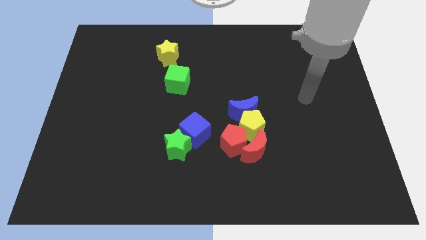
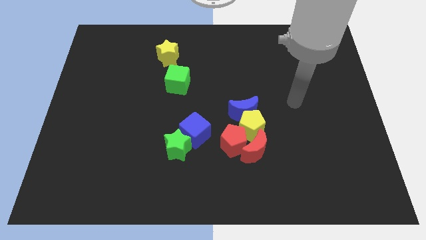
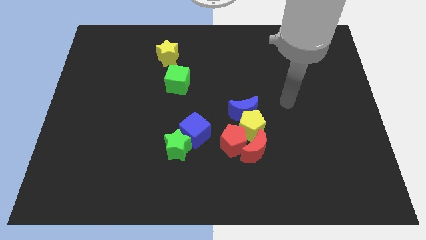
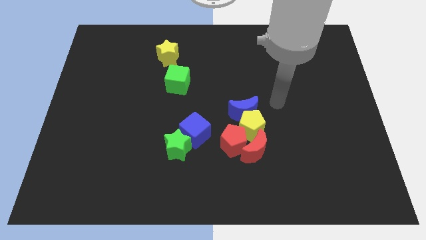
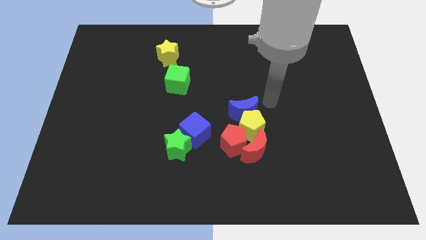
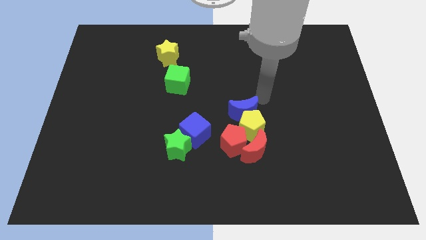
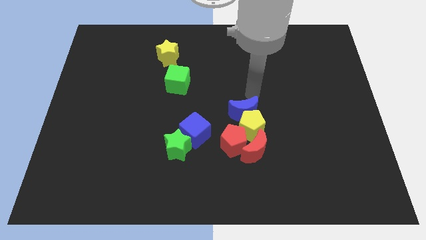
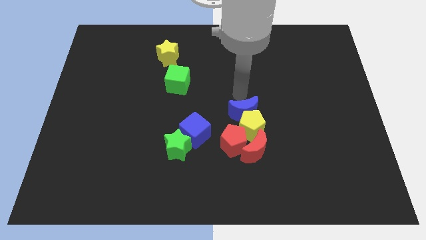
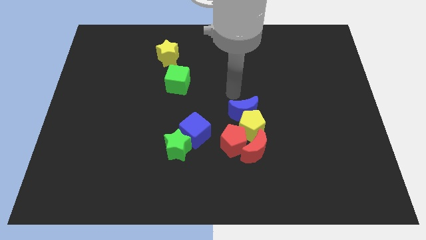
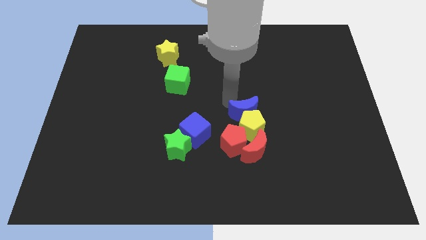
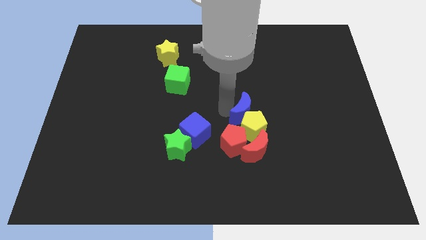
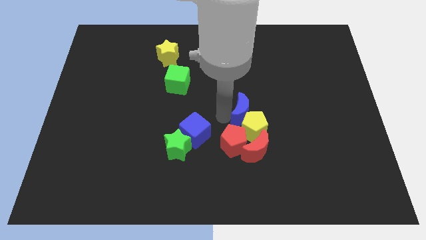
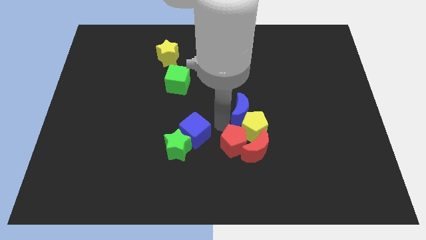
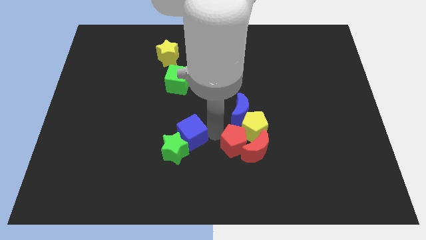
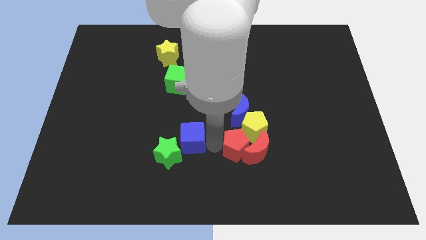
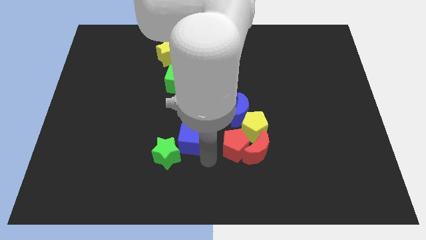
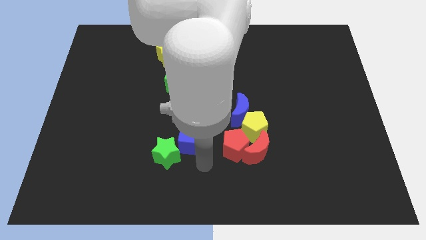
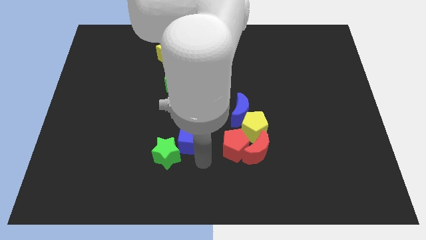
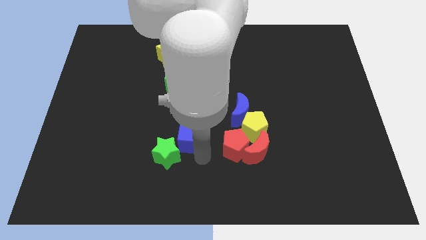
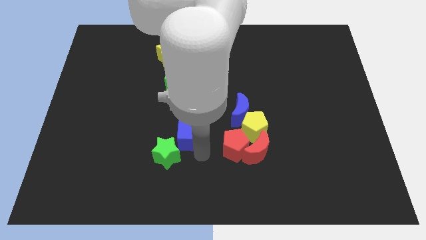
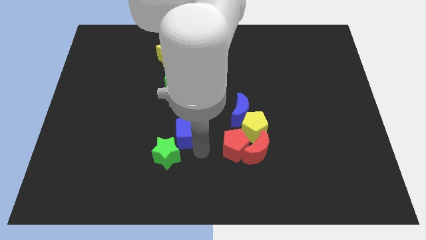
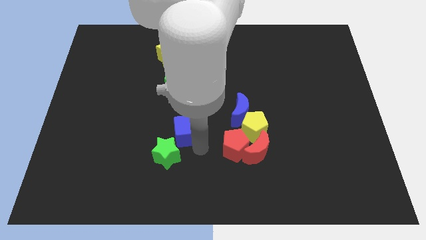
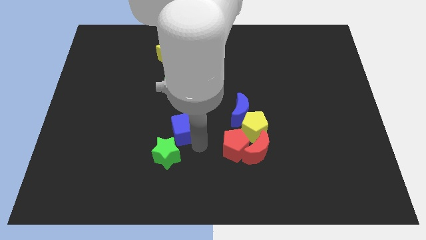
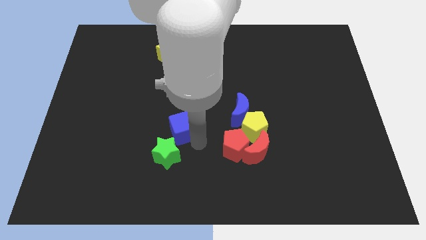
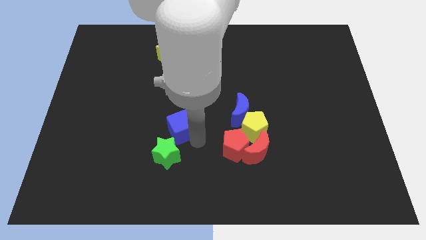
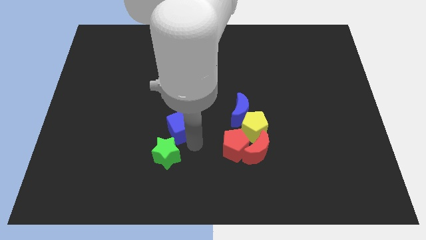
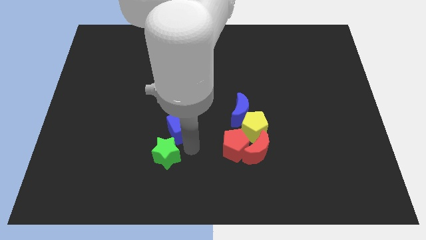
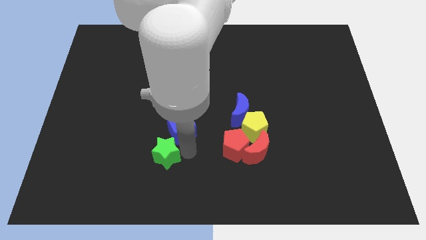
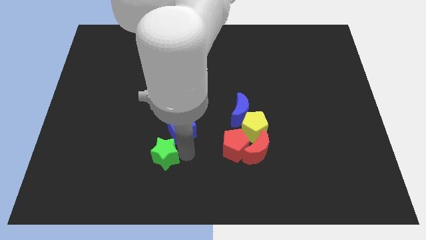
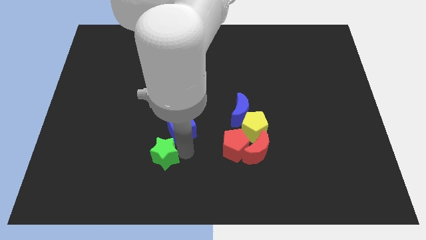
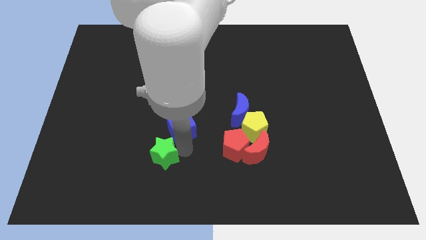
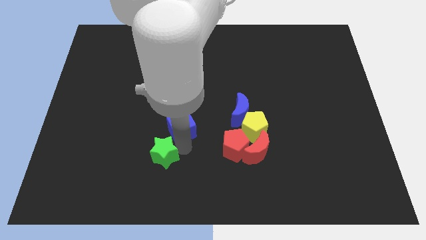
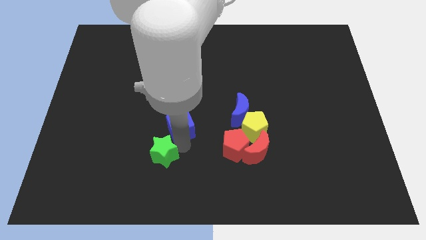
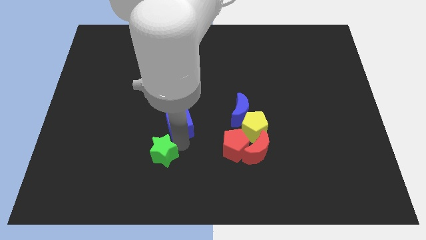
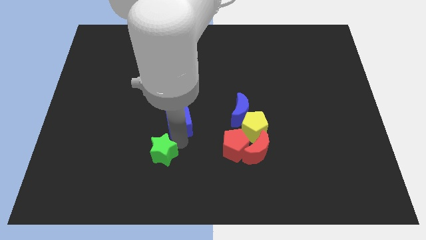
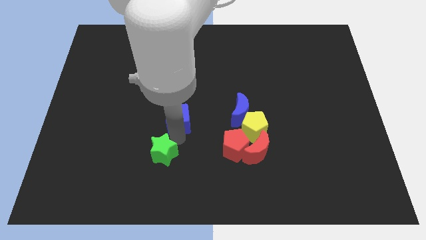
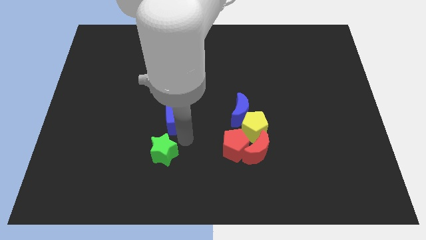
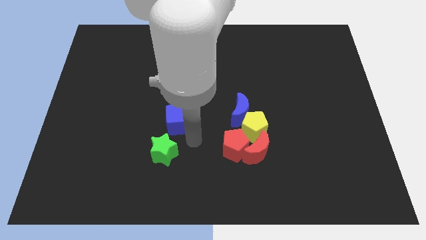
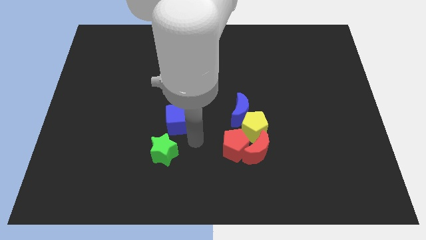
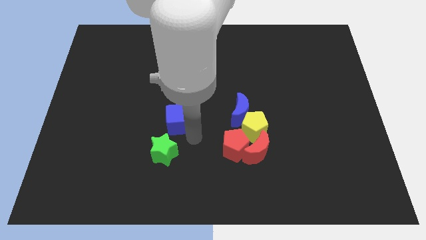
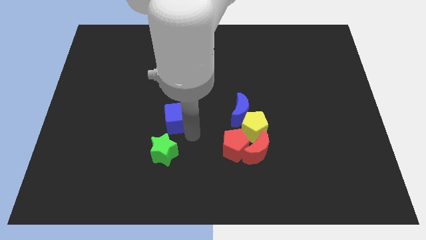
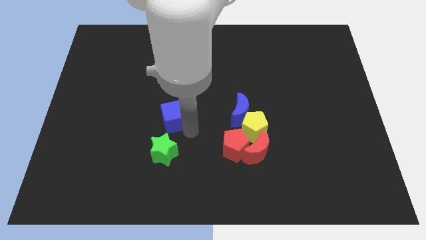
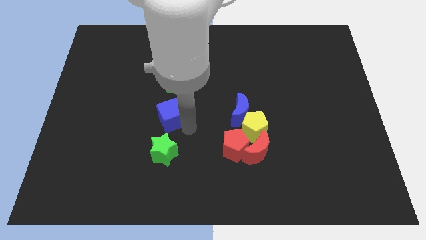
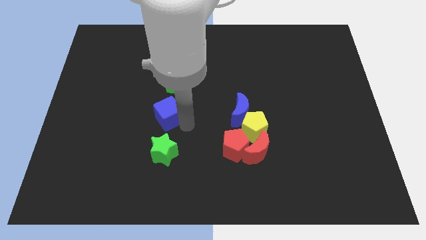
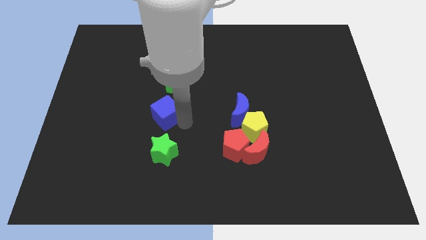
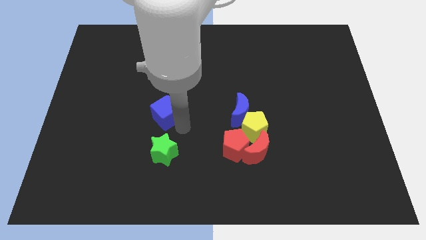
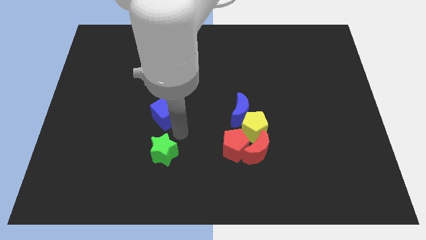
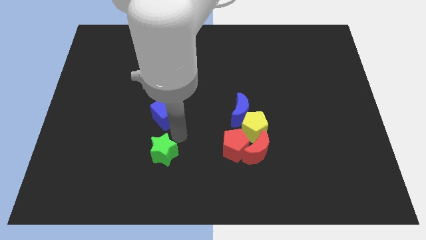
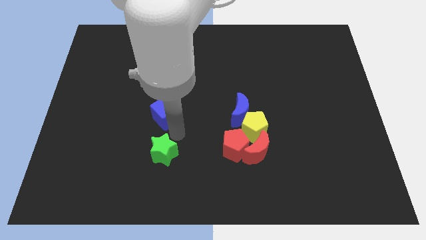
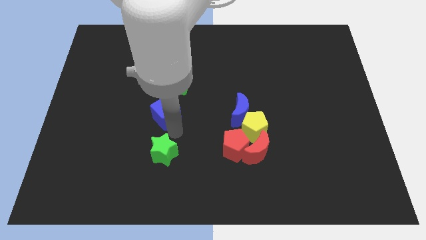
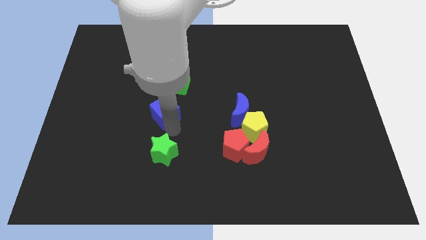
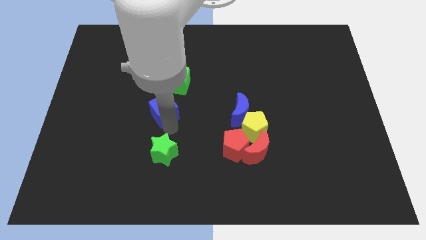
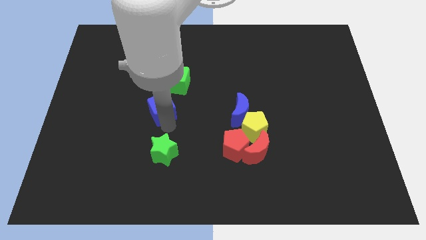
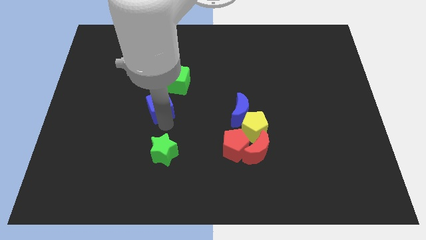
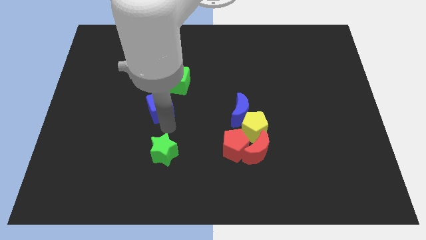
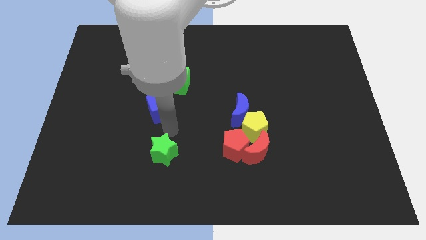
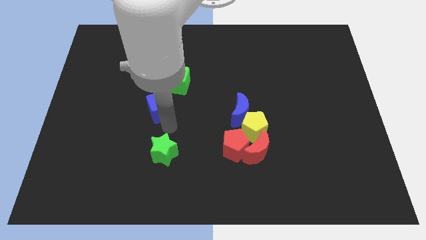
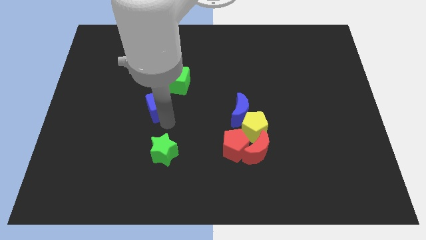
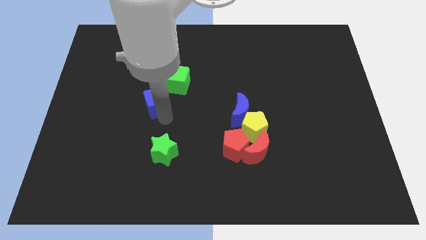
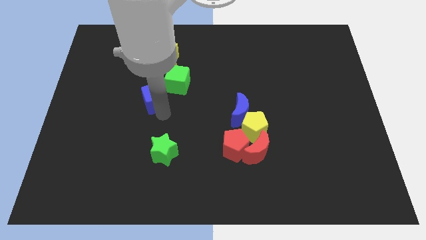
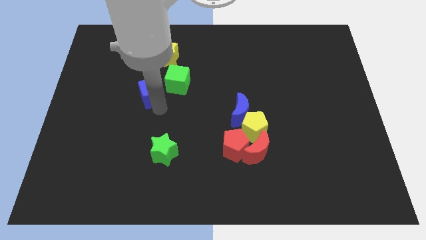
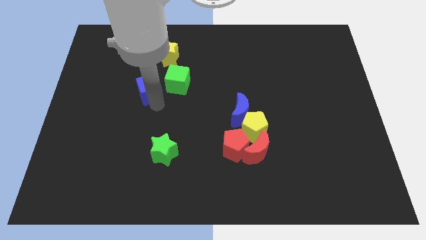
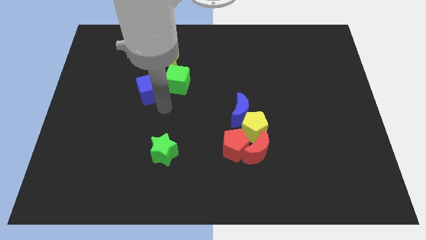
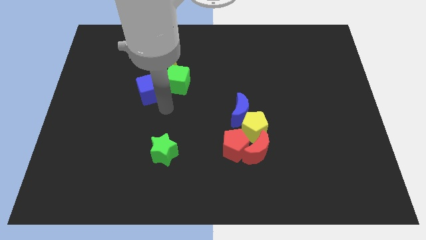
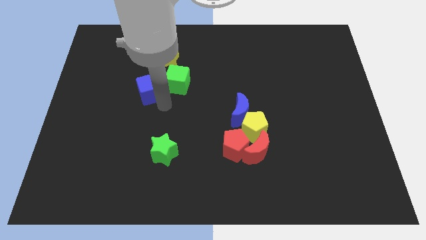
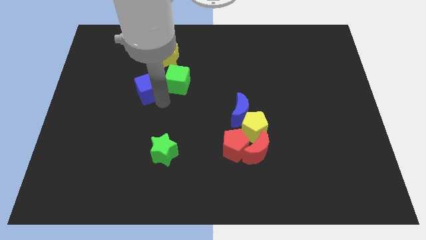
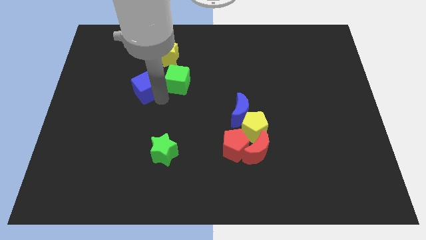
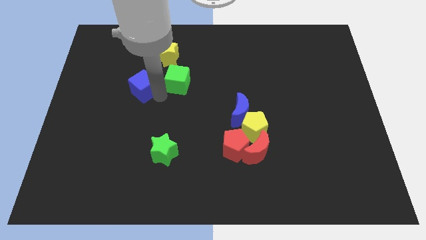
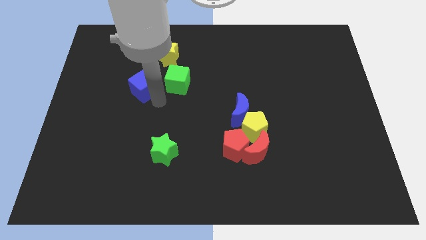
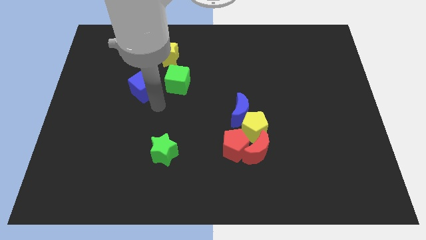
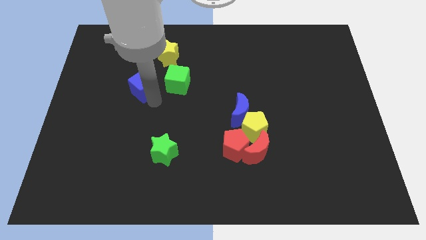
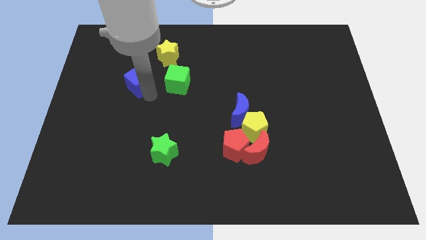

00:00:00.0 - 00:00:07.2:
push the blue cube upwards and then left

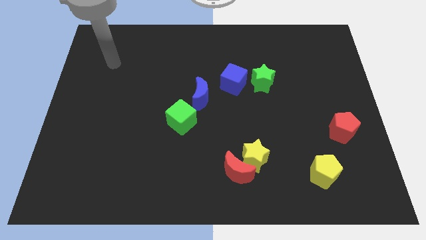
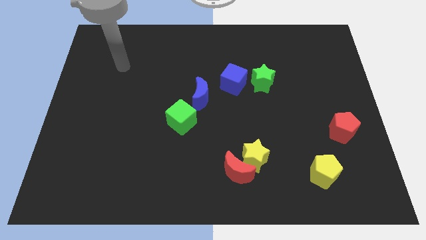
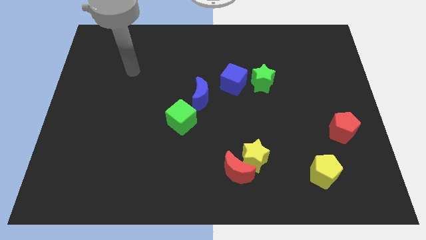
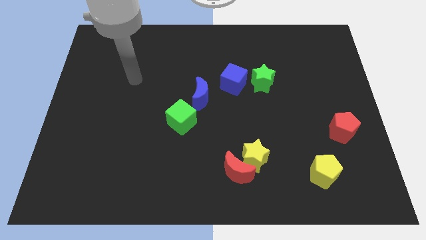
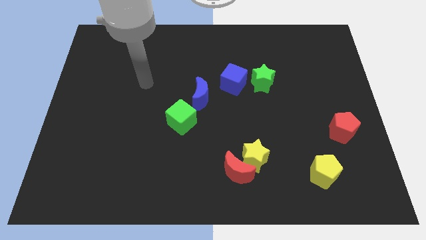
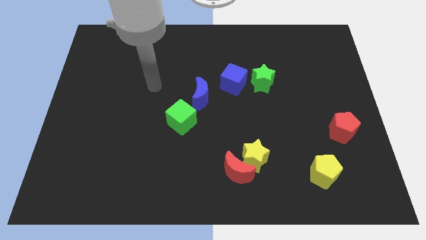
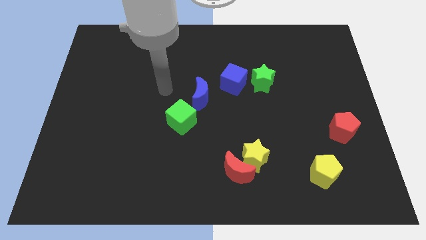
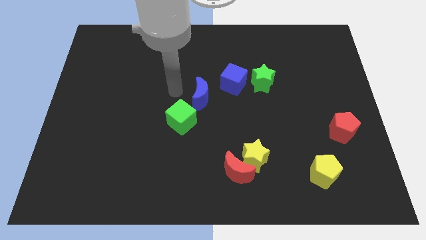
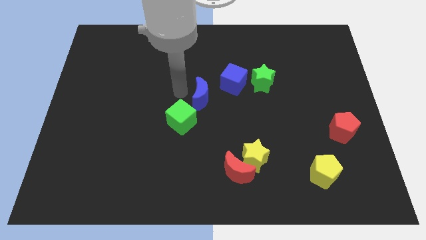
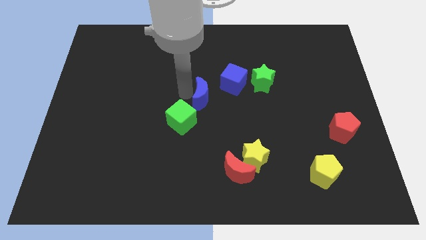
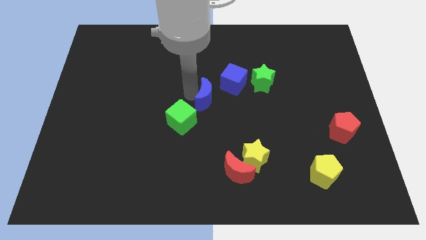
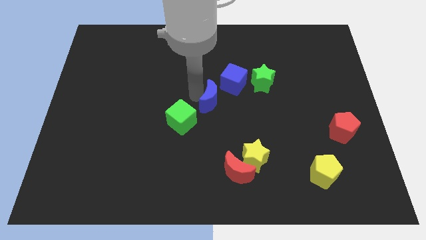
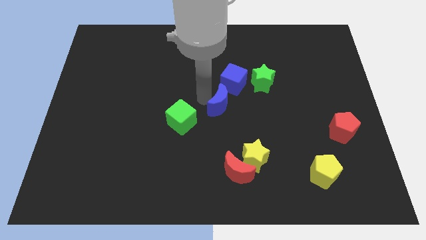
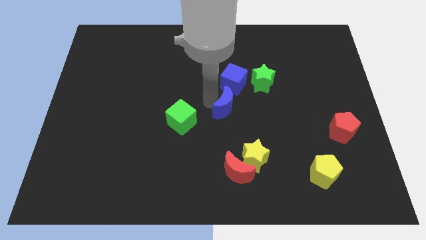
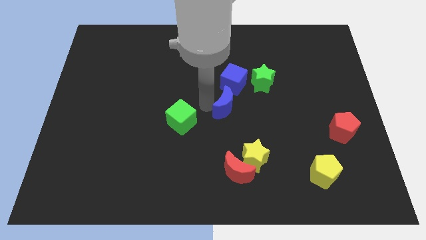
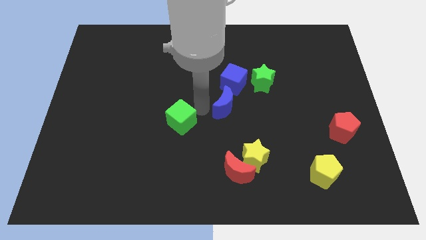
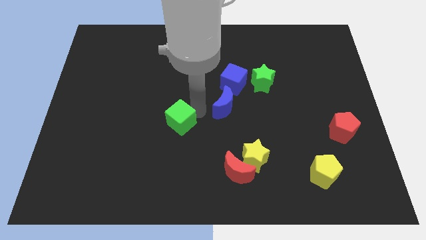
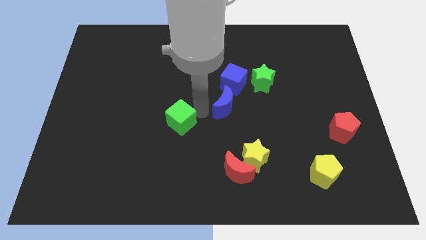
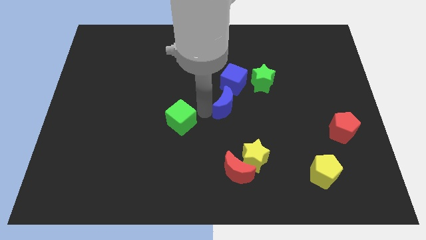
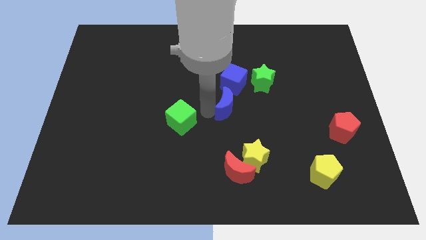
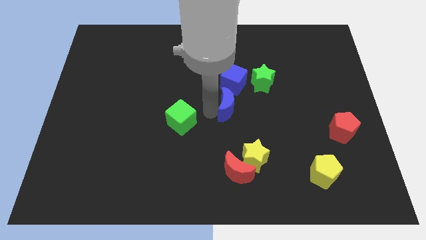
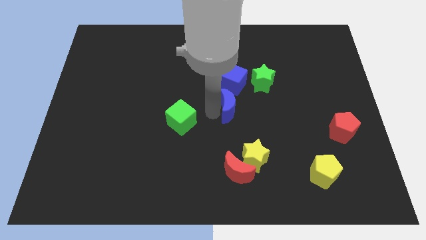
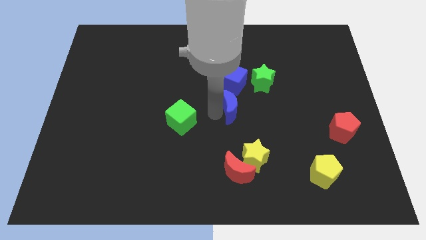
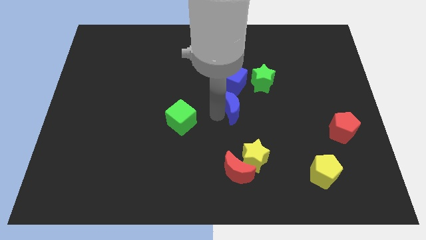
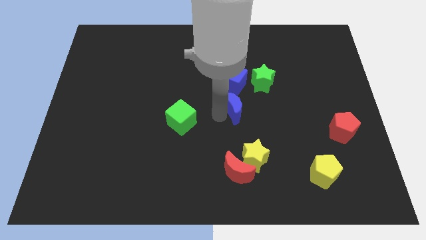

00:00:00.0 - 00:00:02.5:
push the blue moon to the right a little
